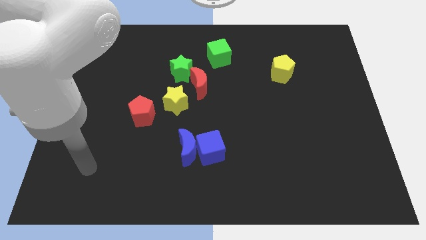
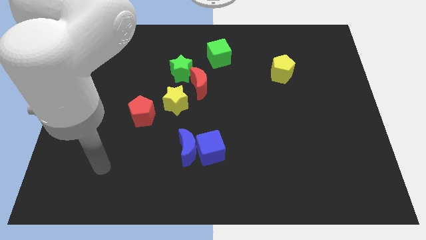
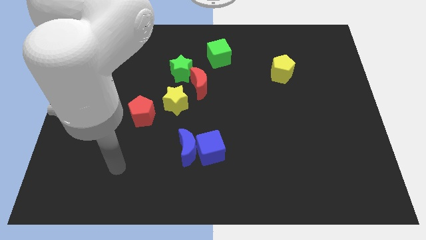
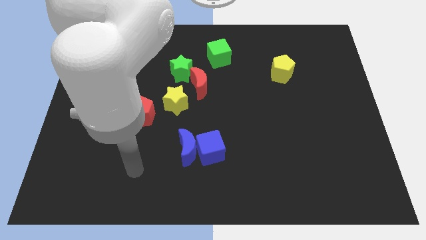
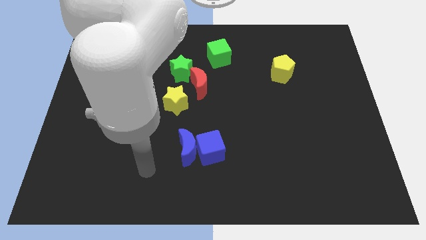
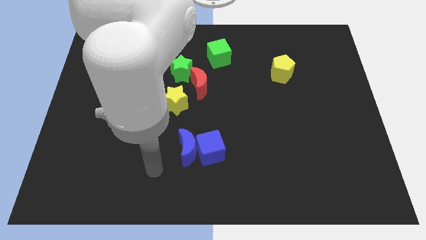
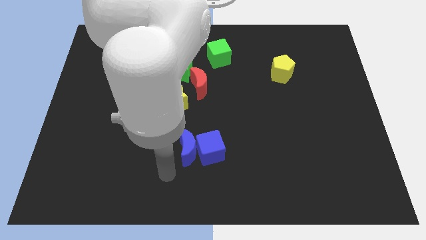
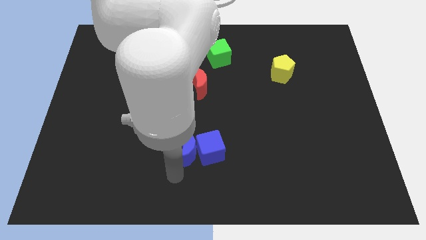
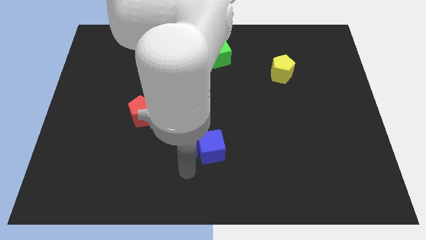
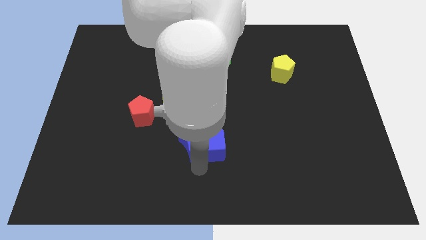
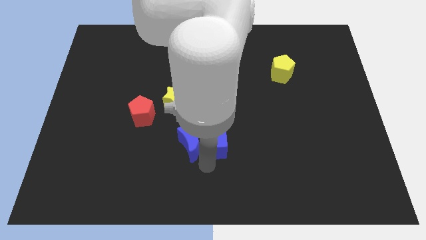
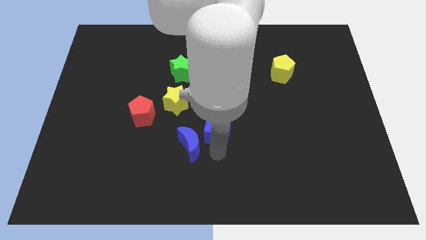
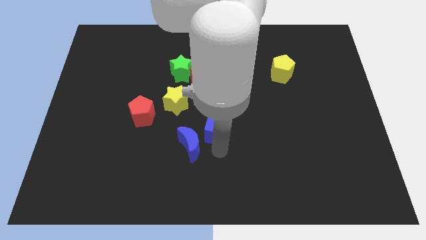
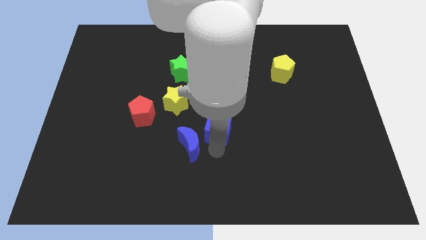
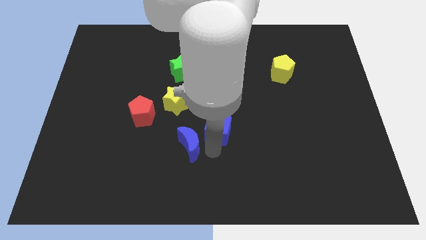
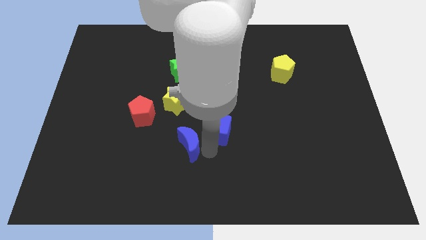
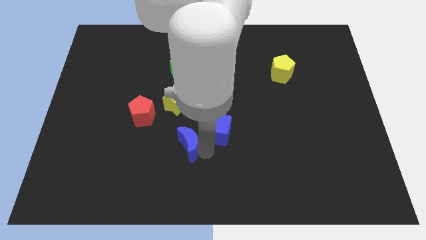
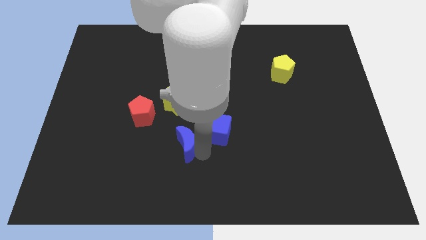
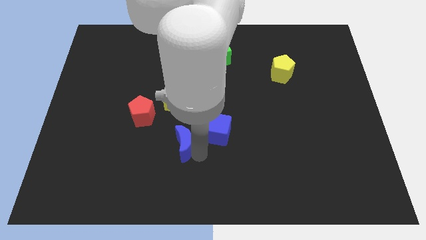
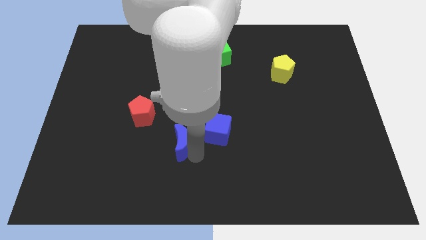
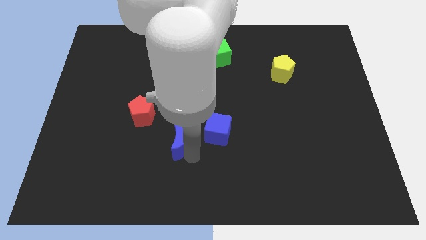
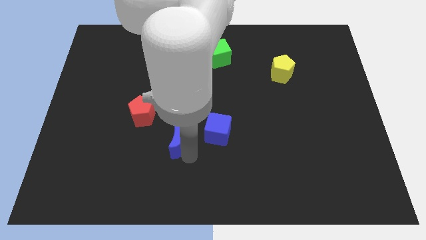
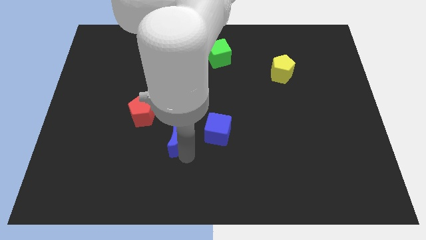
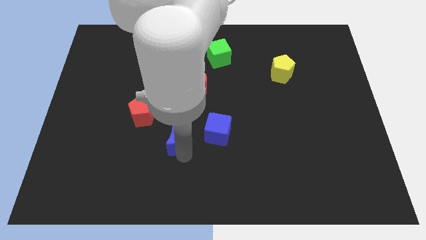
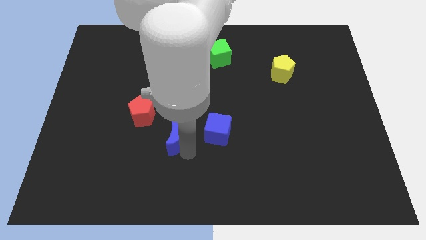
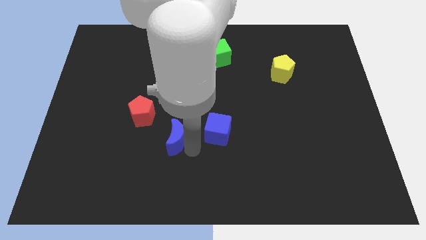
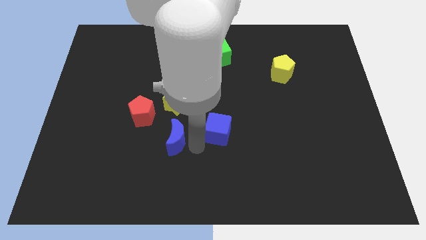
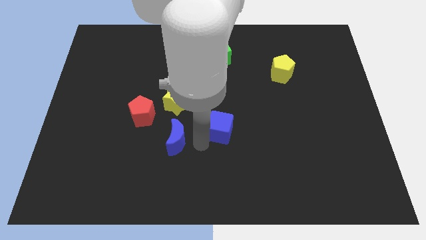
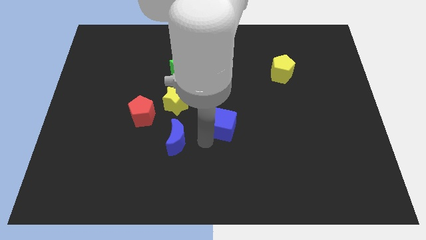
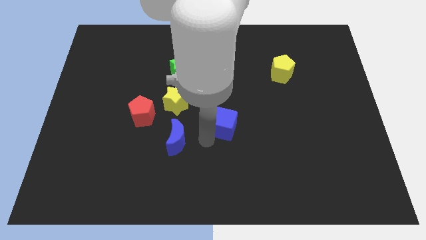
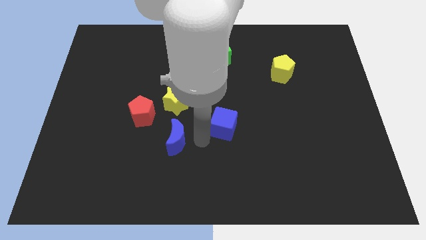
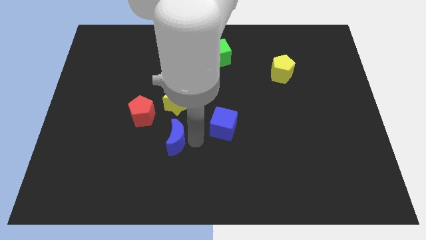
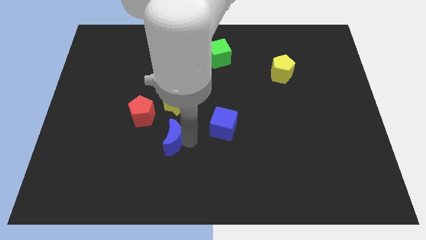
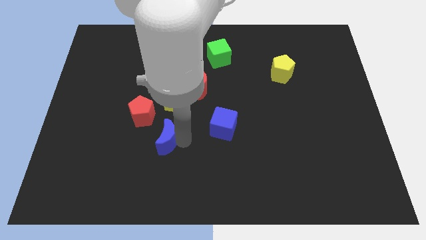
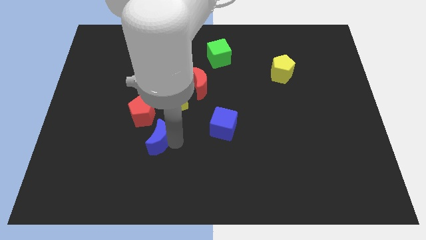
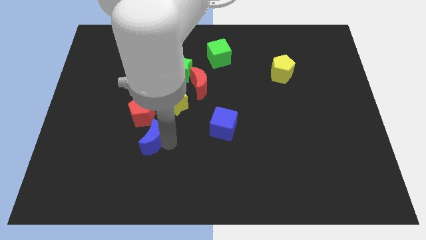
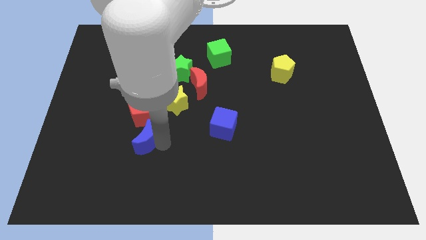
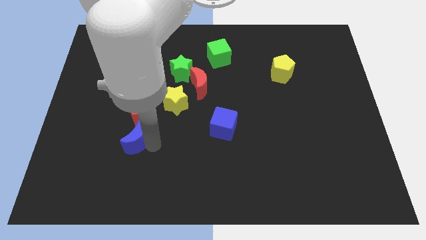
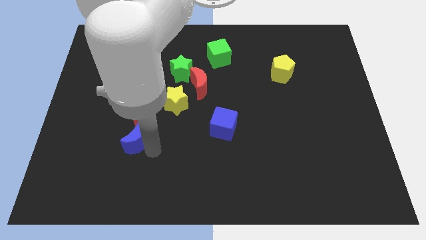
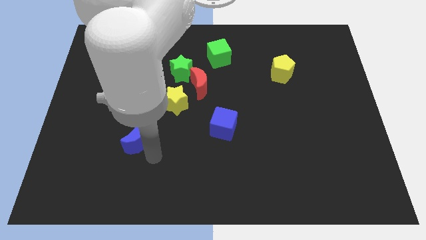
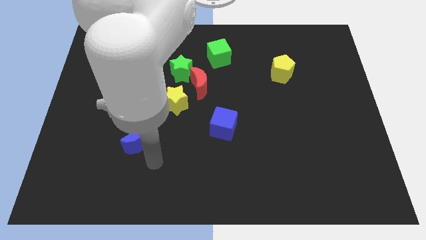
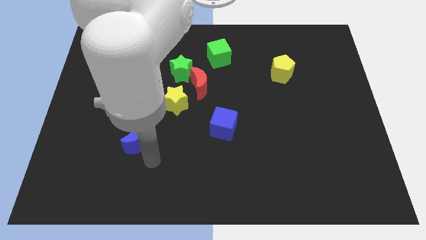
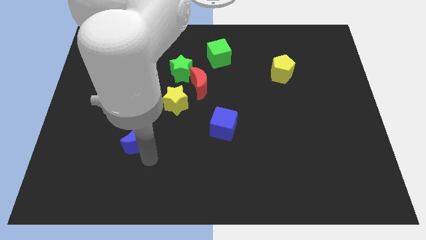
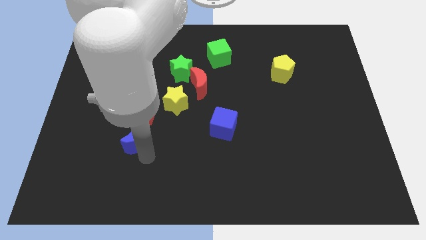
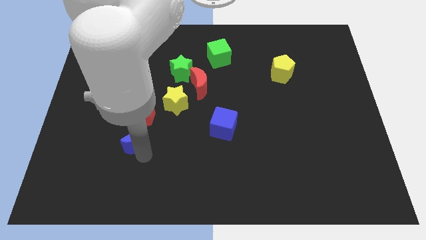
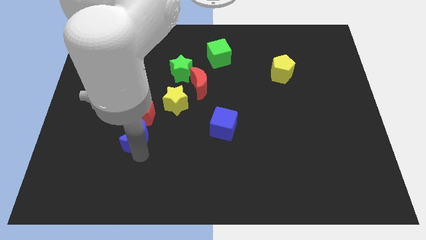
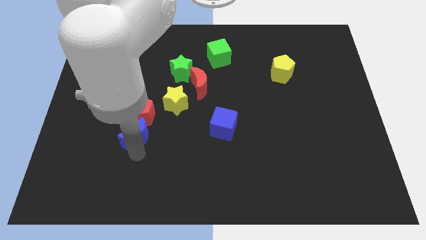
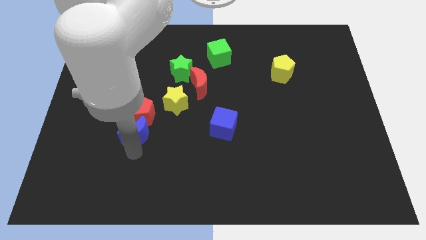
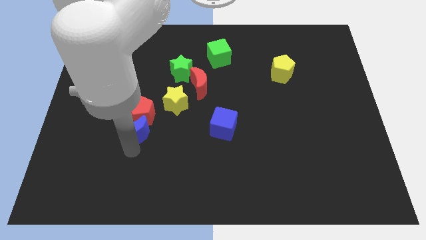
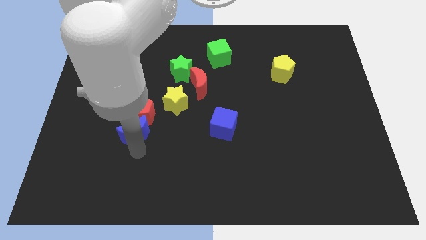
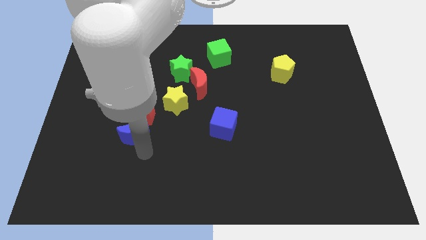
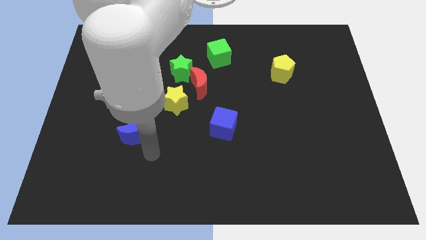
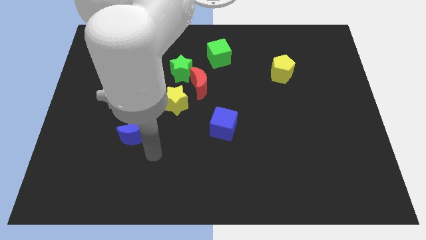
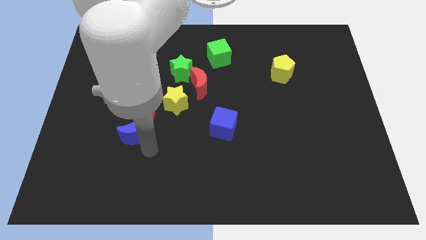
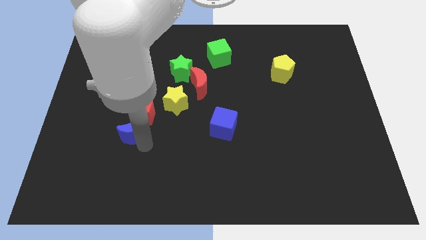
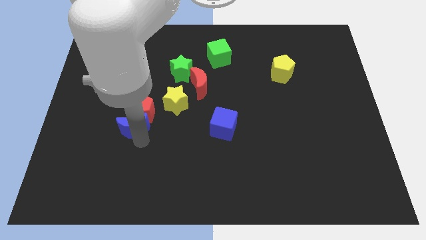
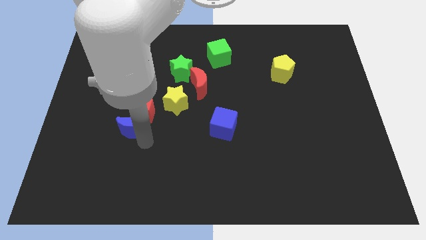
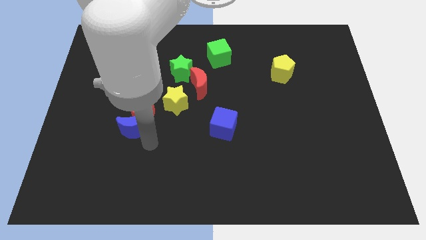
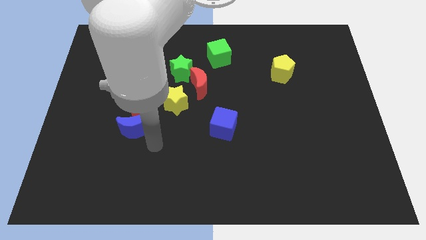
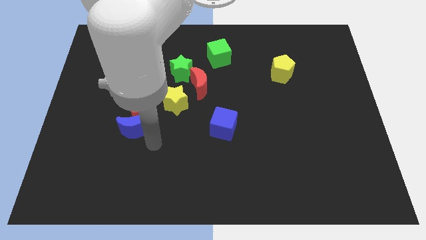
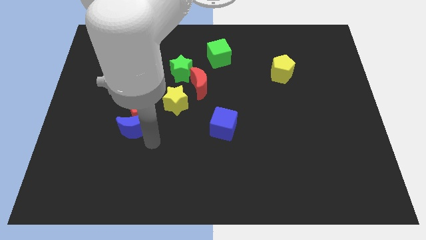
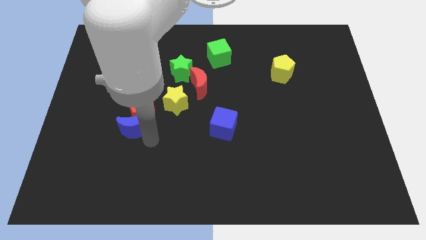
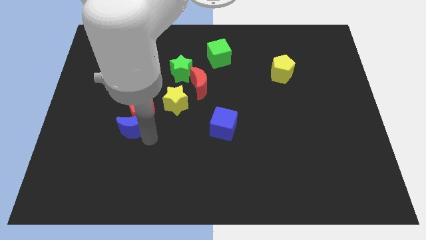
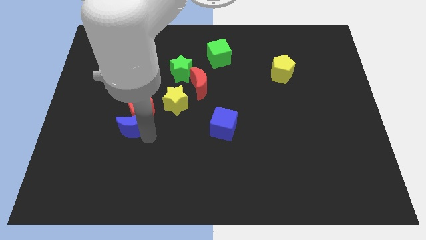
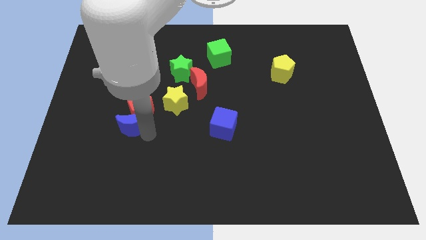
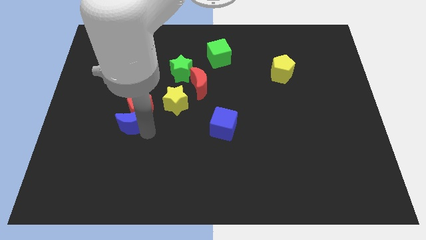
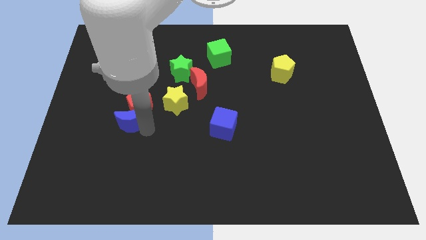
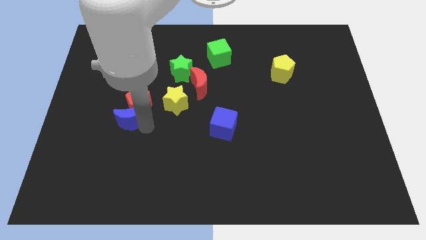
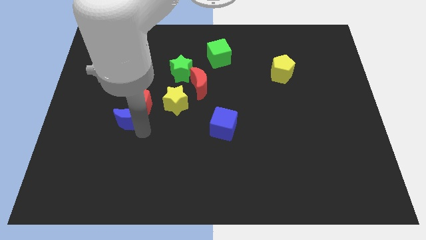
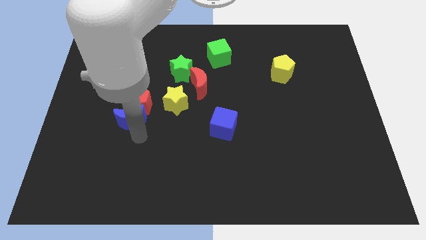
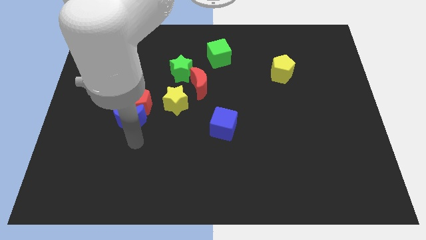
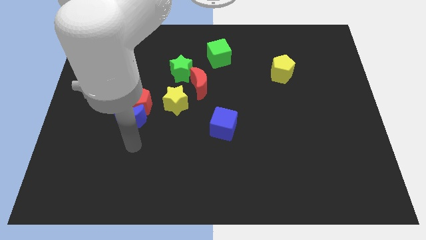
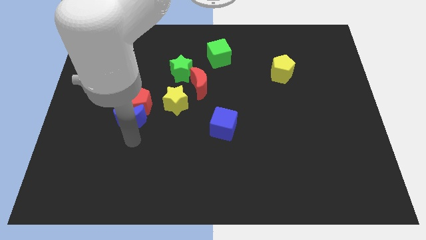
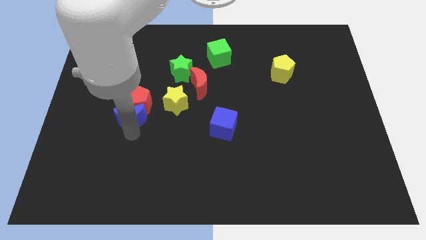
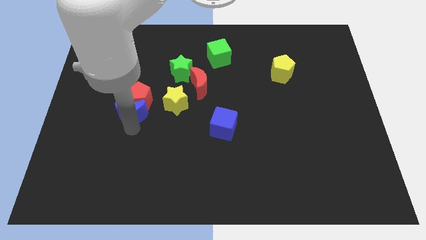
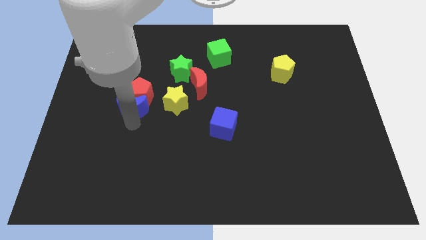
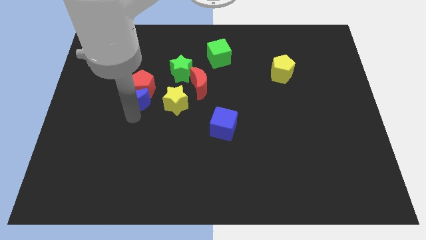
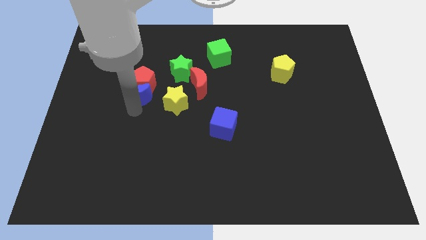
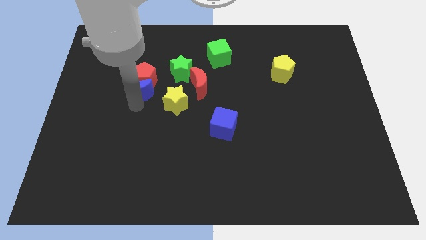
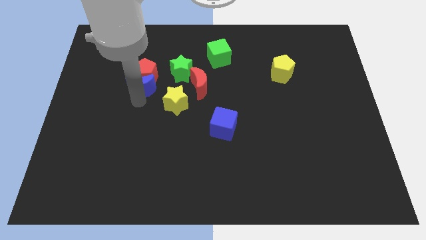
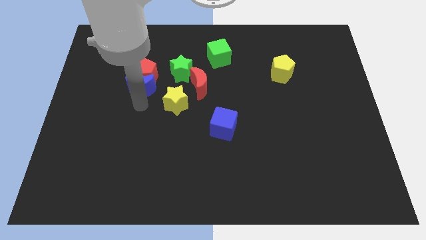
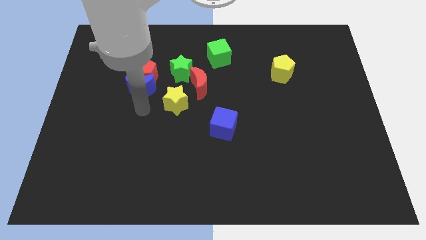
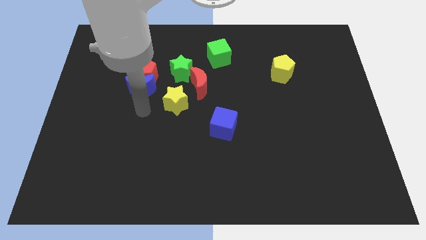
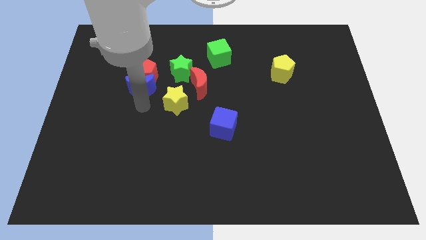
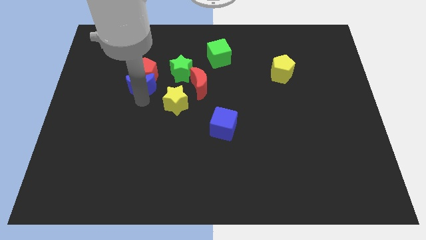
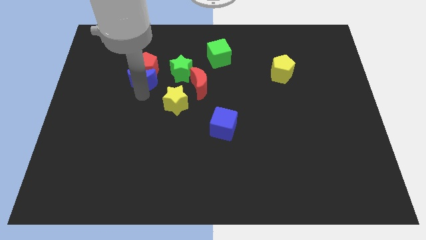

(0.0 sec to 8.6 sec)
push the blue moon to the left of the green star
